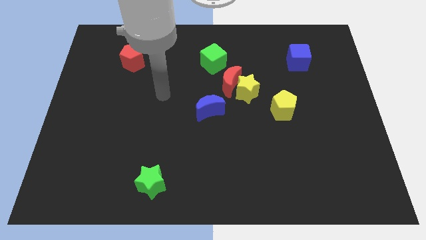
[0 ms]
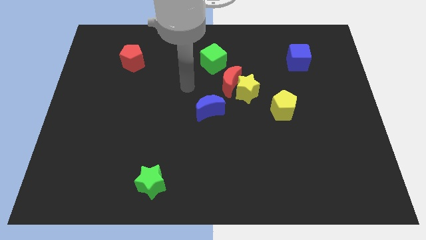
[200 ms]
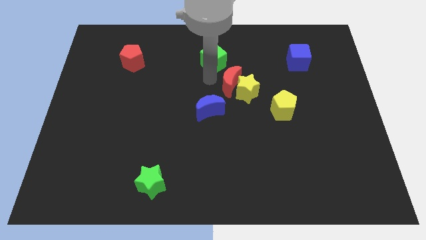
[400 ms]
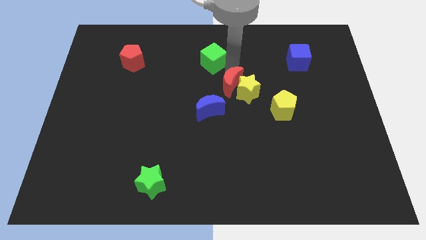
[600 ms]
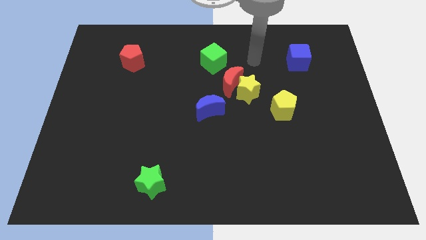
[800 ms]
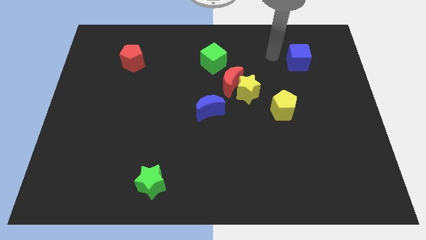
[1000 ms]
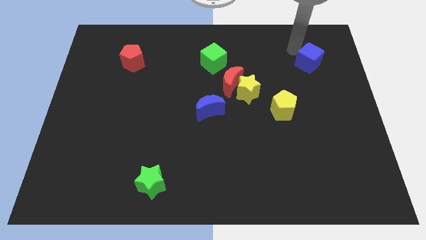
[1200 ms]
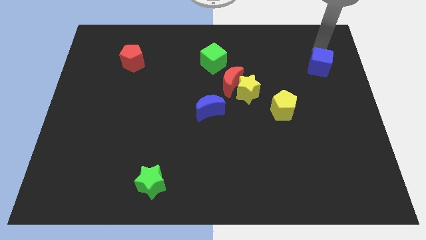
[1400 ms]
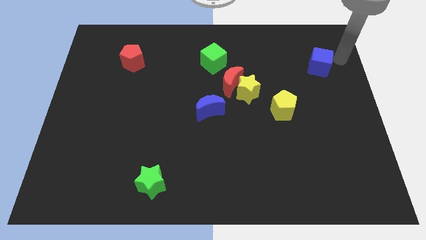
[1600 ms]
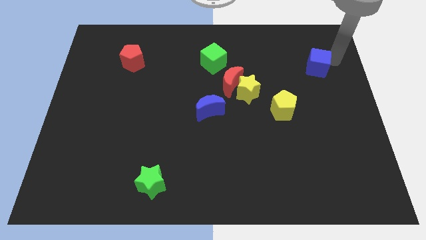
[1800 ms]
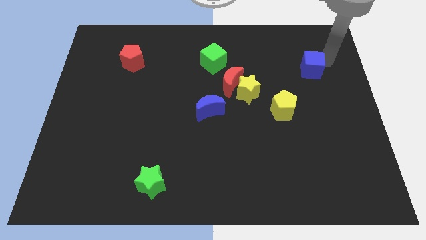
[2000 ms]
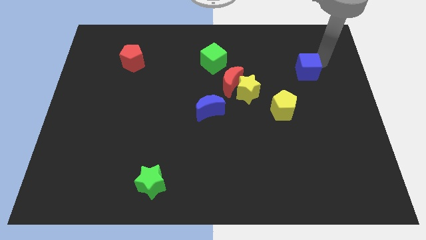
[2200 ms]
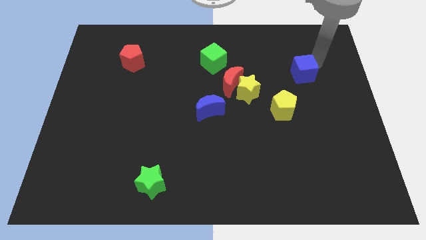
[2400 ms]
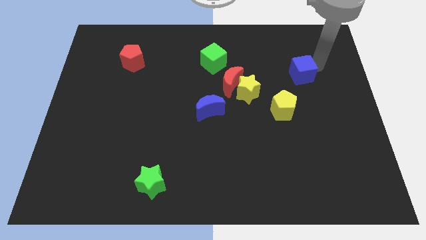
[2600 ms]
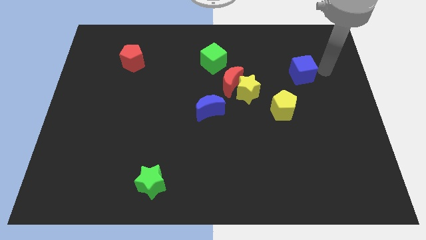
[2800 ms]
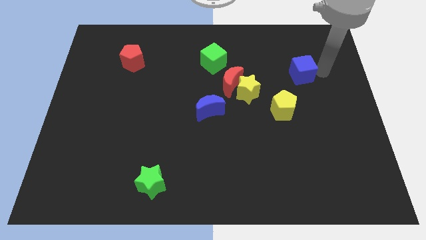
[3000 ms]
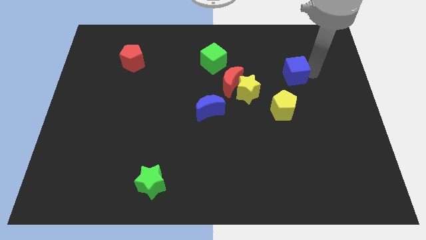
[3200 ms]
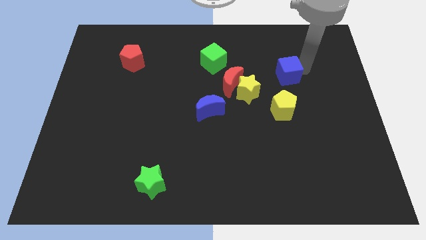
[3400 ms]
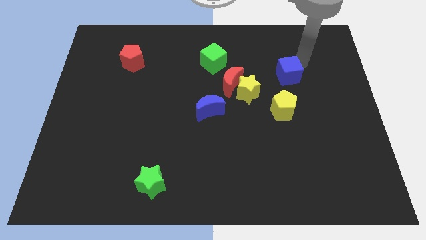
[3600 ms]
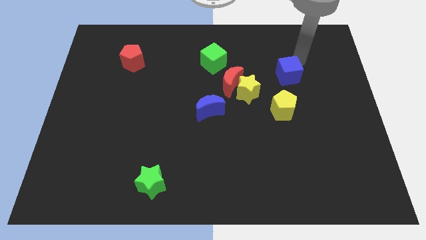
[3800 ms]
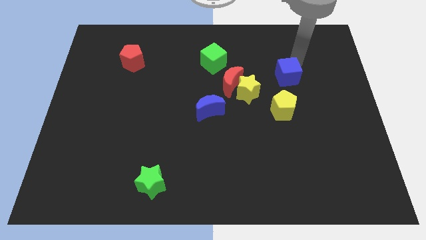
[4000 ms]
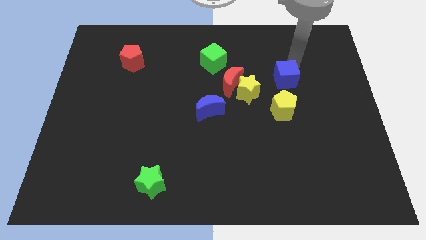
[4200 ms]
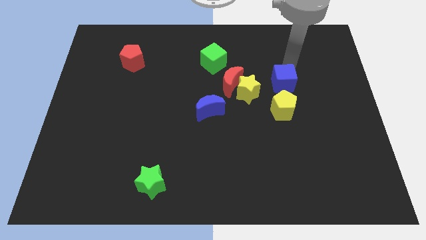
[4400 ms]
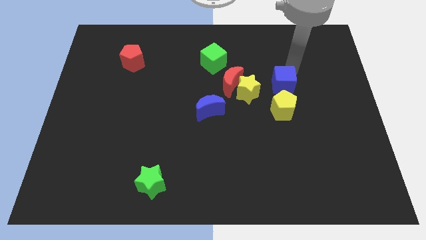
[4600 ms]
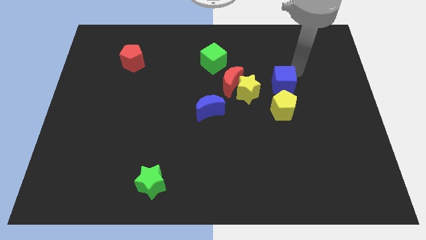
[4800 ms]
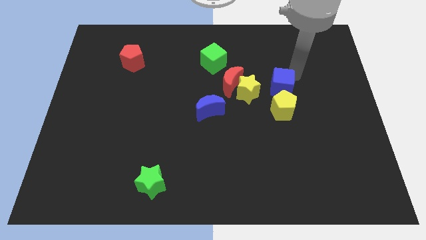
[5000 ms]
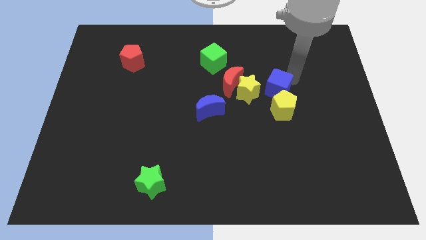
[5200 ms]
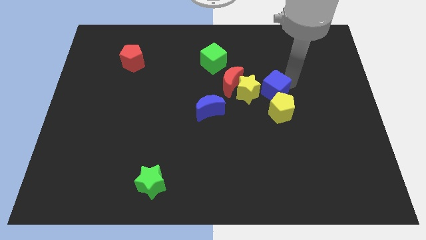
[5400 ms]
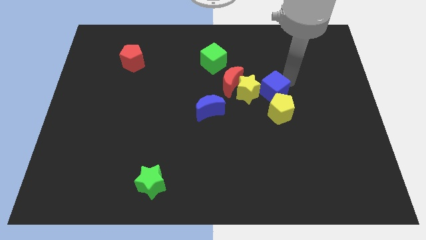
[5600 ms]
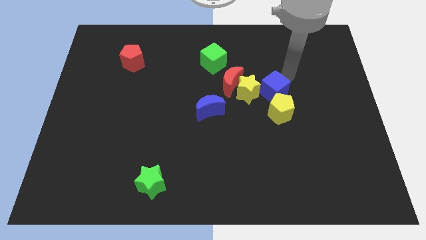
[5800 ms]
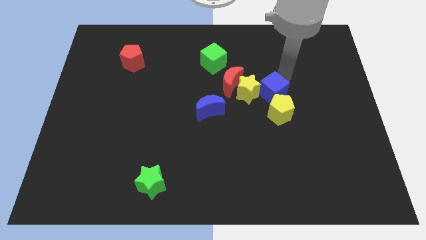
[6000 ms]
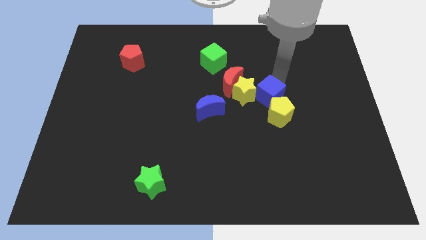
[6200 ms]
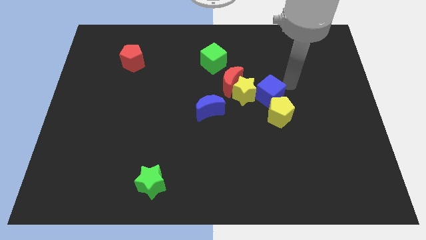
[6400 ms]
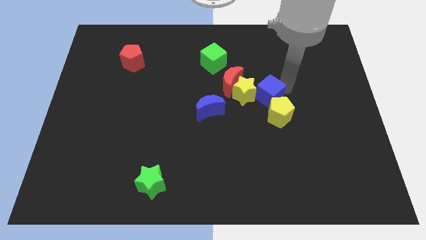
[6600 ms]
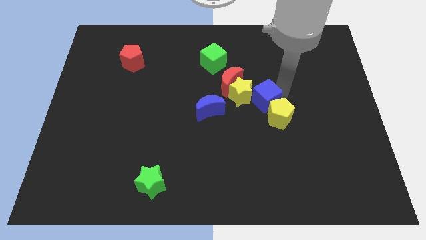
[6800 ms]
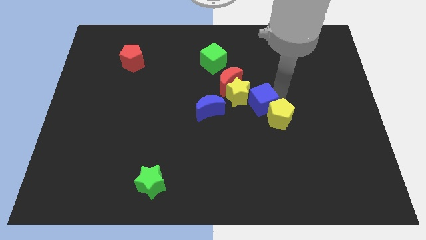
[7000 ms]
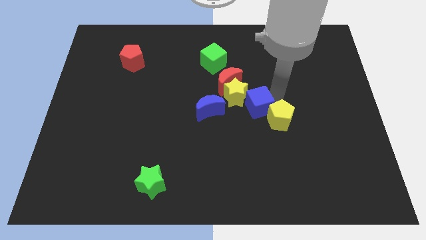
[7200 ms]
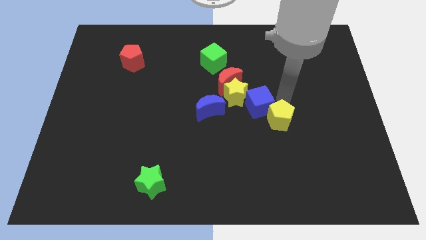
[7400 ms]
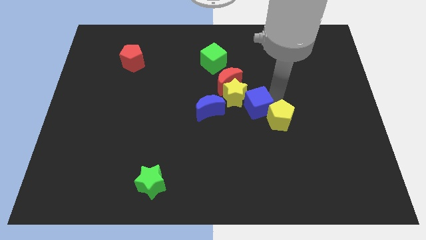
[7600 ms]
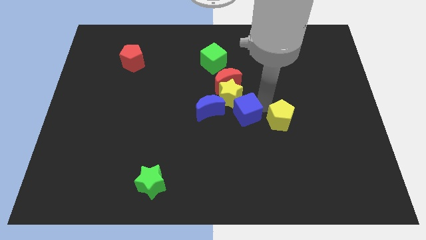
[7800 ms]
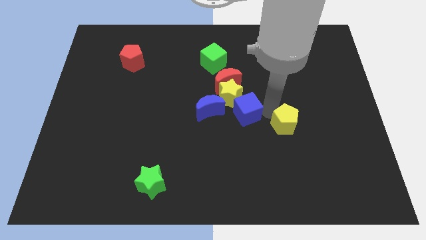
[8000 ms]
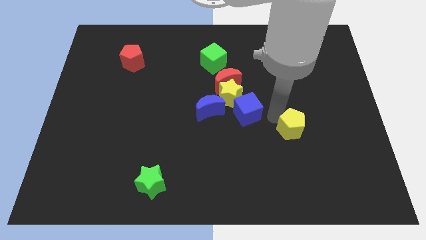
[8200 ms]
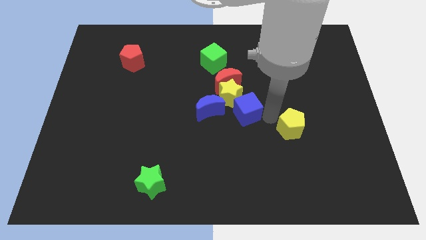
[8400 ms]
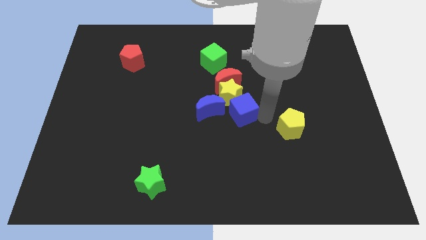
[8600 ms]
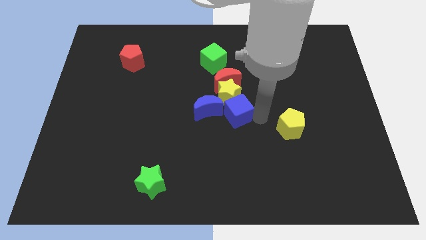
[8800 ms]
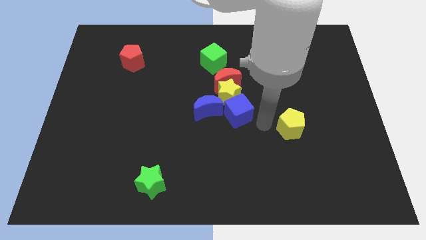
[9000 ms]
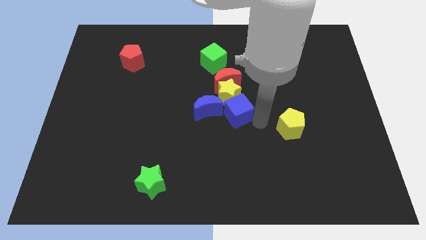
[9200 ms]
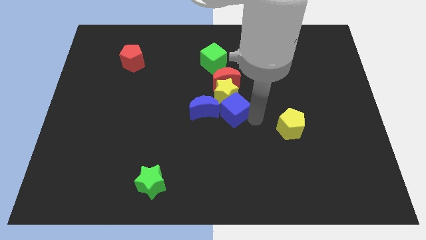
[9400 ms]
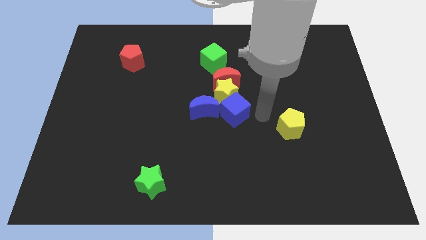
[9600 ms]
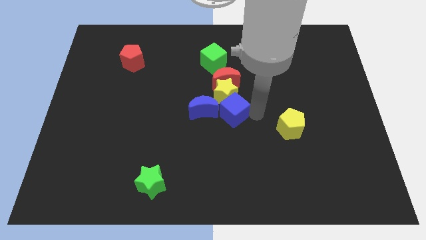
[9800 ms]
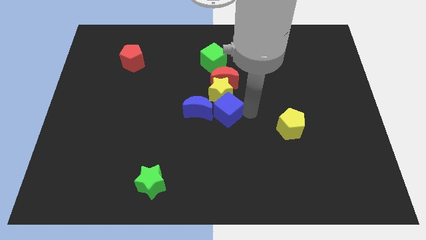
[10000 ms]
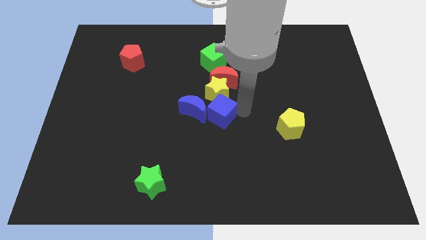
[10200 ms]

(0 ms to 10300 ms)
put the blue cube next to the blue moon

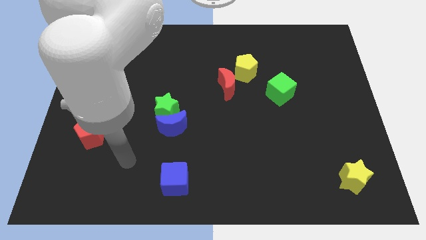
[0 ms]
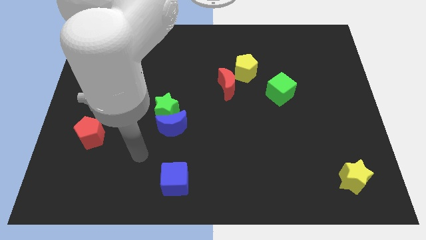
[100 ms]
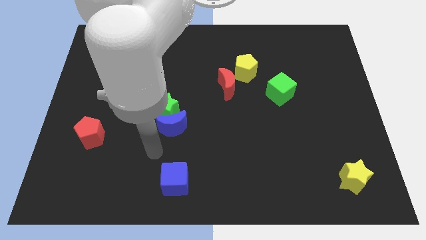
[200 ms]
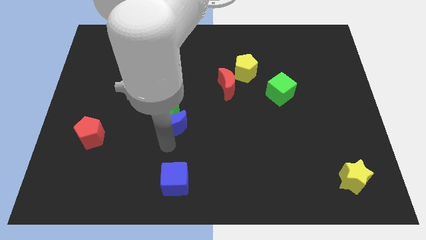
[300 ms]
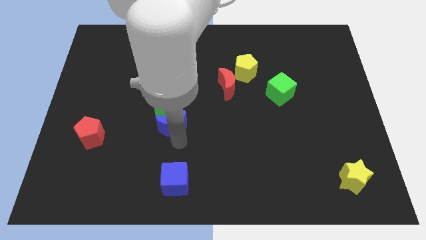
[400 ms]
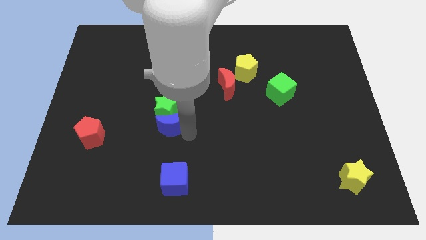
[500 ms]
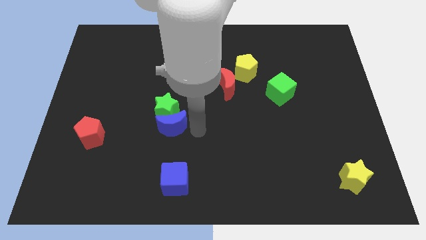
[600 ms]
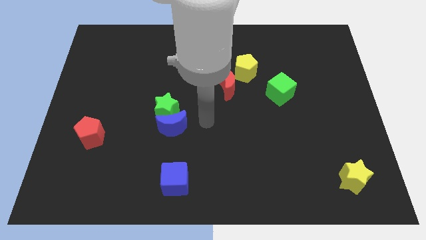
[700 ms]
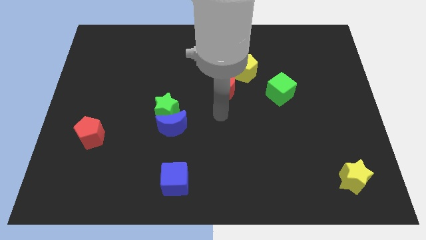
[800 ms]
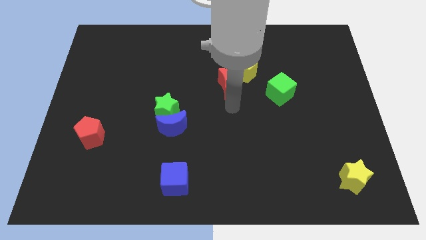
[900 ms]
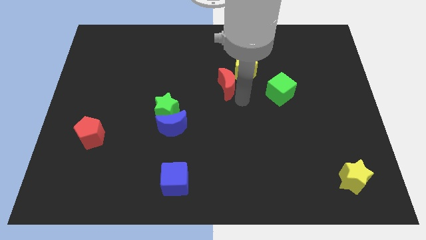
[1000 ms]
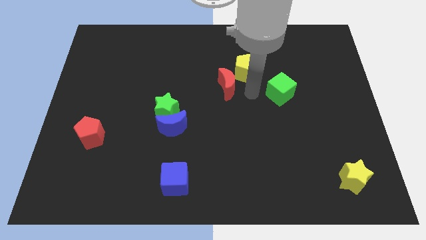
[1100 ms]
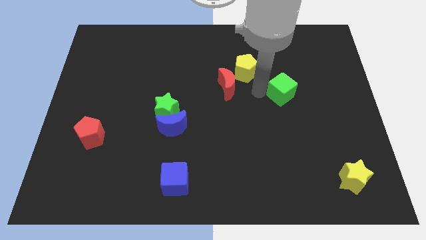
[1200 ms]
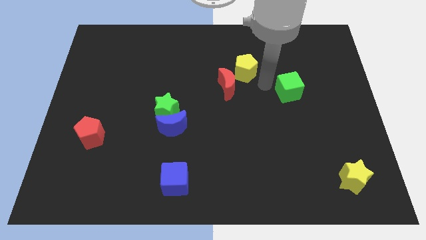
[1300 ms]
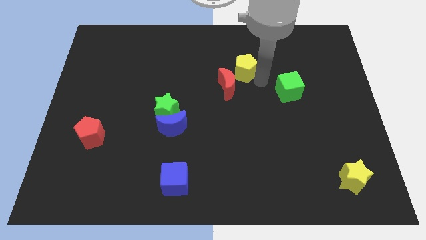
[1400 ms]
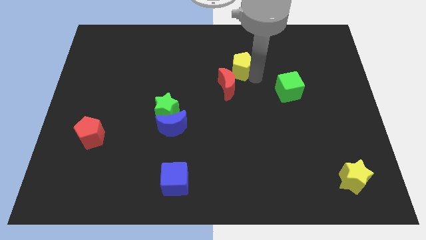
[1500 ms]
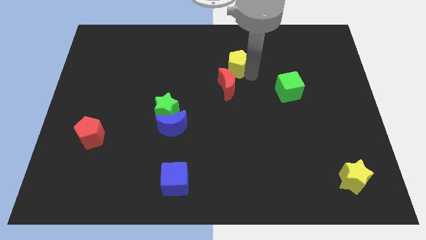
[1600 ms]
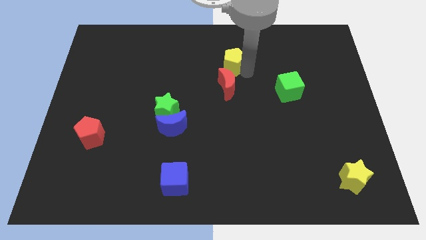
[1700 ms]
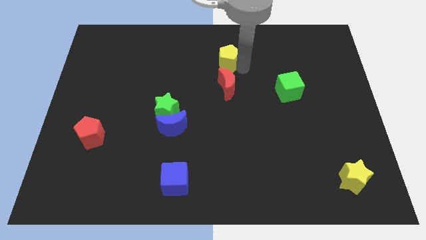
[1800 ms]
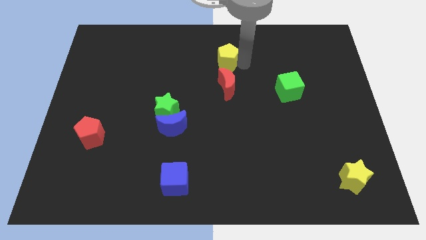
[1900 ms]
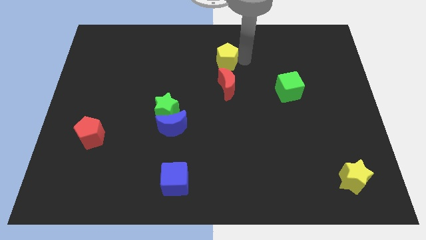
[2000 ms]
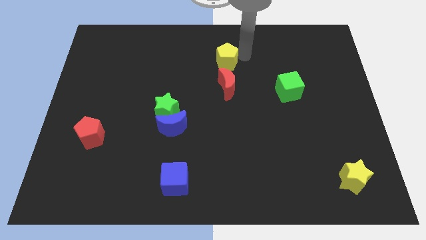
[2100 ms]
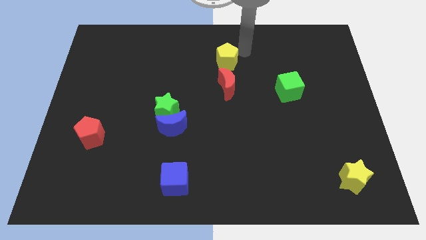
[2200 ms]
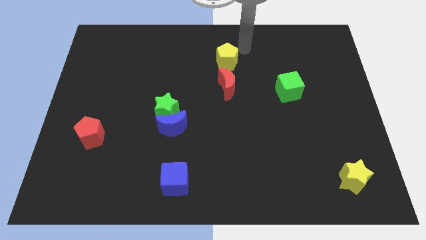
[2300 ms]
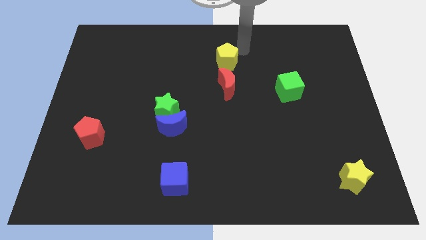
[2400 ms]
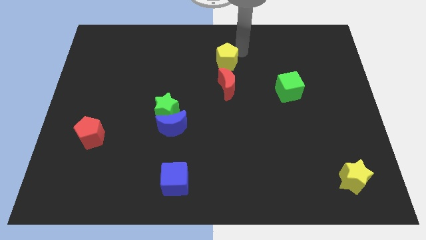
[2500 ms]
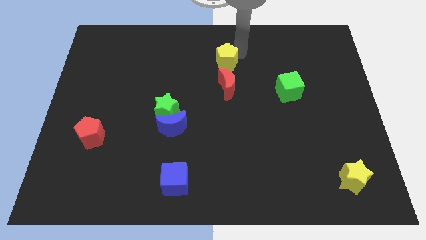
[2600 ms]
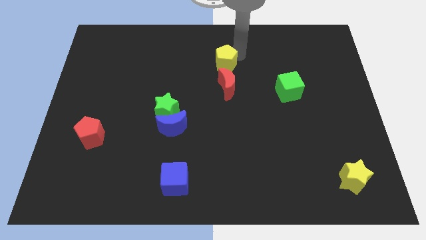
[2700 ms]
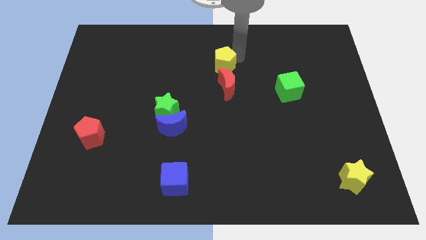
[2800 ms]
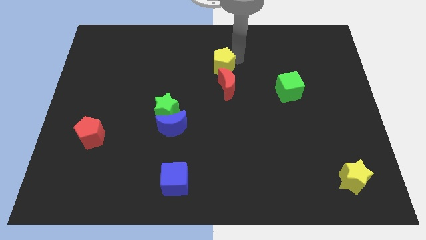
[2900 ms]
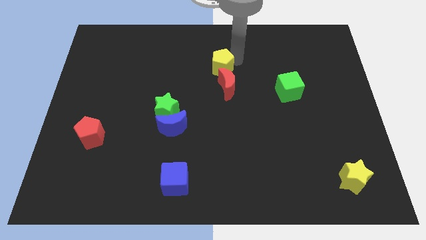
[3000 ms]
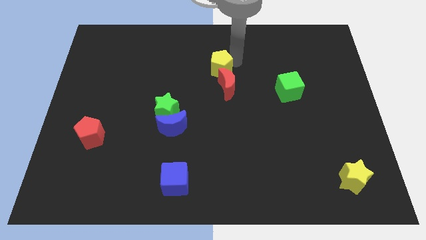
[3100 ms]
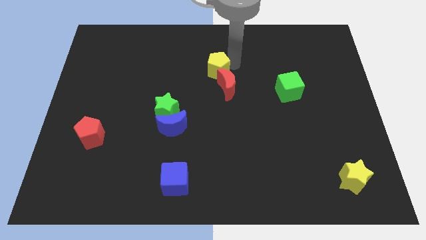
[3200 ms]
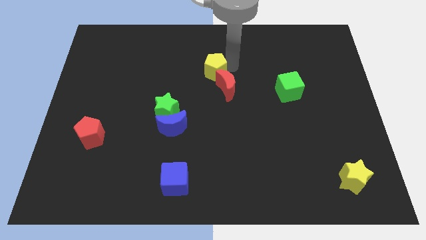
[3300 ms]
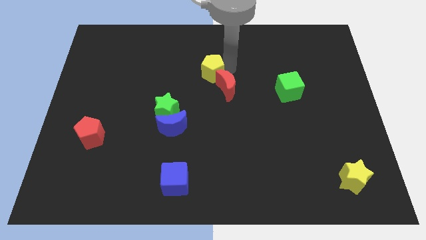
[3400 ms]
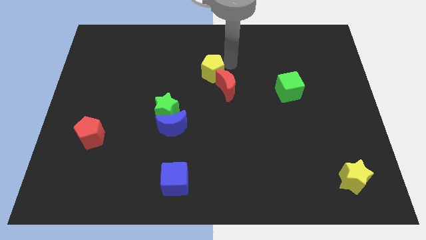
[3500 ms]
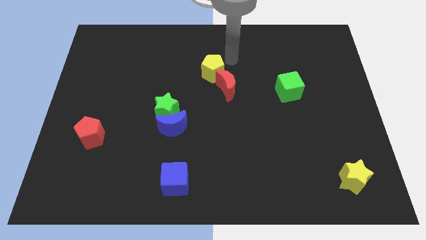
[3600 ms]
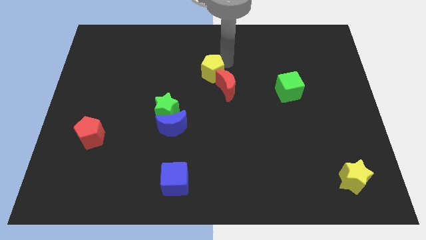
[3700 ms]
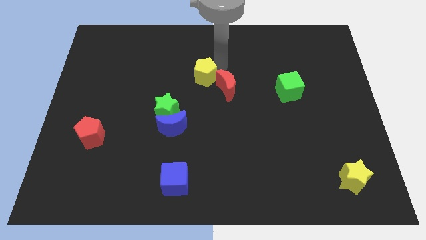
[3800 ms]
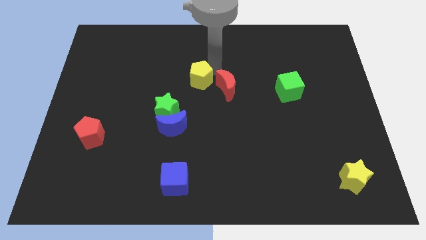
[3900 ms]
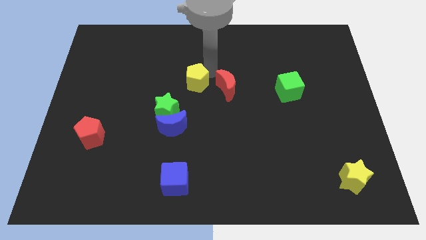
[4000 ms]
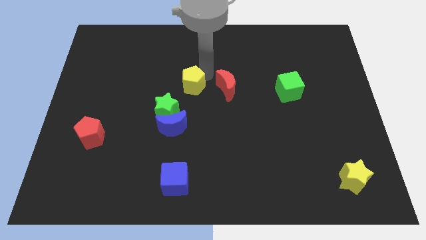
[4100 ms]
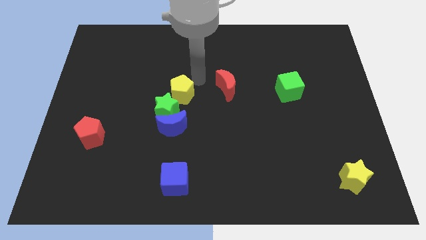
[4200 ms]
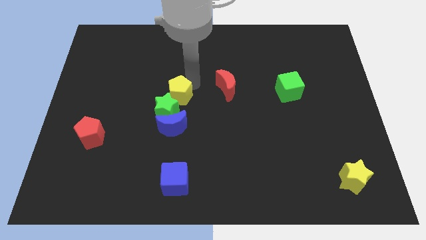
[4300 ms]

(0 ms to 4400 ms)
push the yellow pentagon towards the green star
